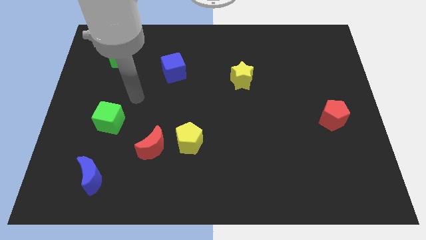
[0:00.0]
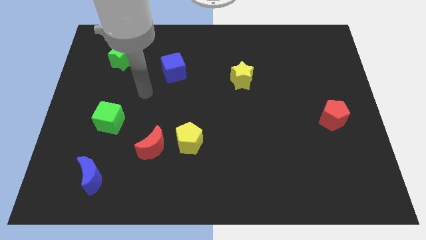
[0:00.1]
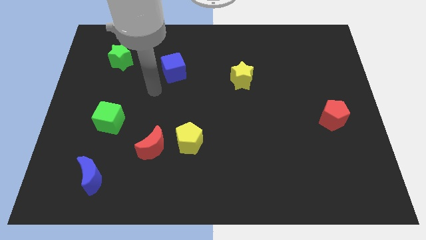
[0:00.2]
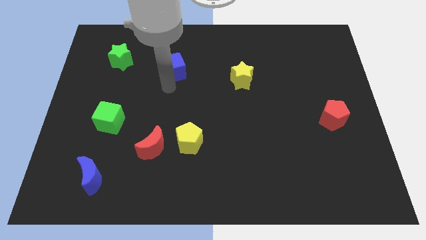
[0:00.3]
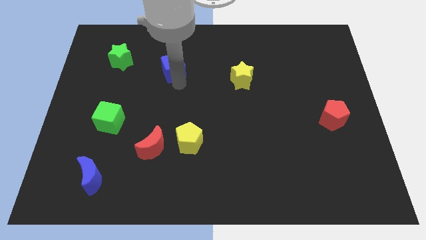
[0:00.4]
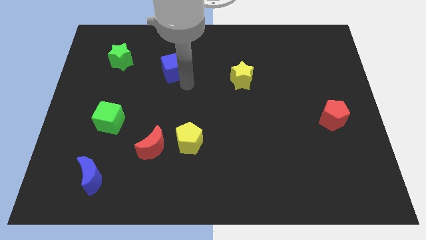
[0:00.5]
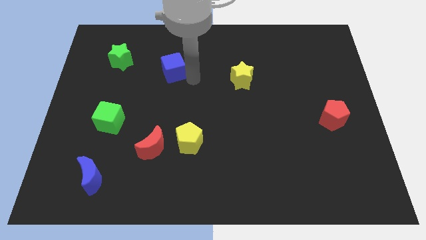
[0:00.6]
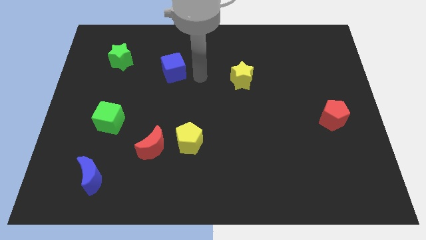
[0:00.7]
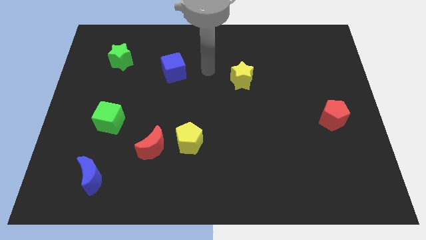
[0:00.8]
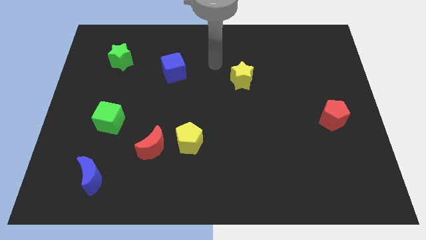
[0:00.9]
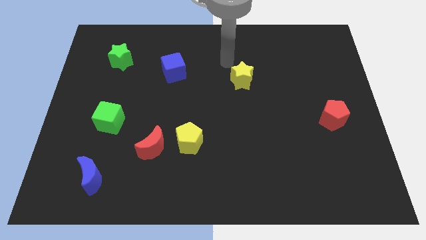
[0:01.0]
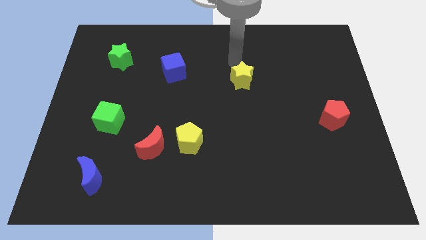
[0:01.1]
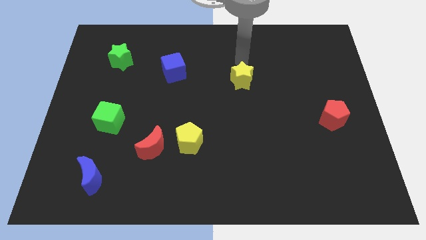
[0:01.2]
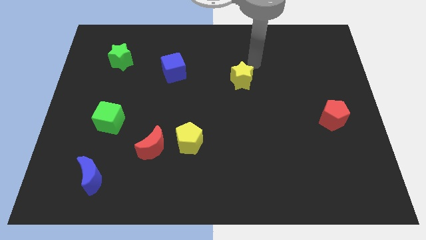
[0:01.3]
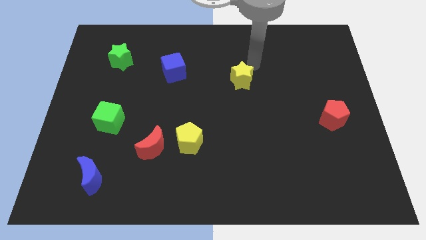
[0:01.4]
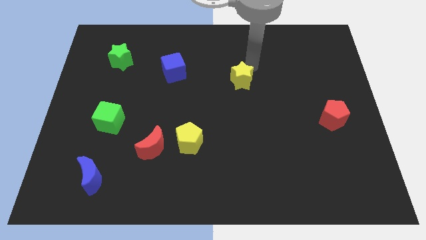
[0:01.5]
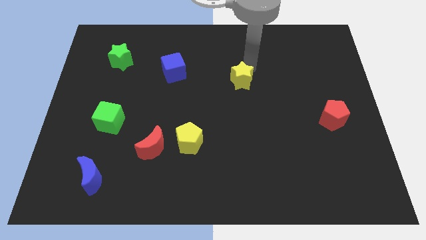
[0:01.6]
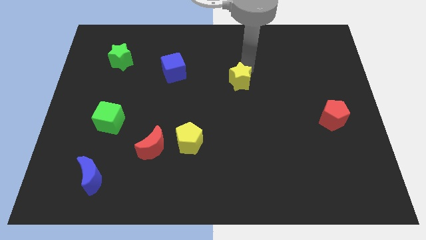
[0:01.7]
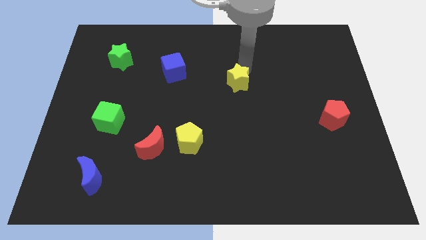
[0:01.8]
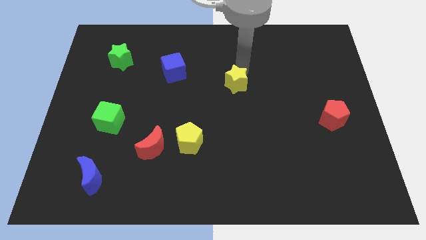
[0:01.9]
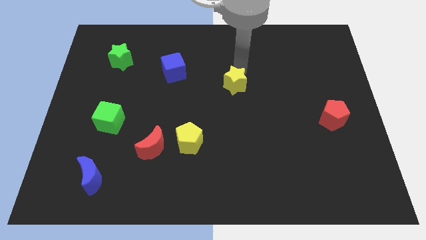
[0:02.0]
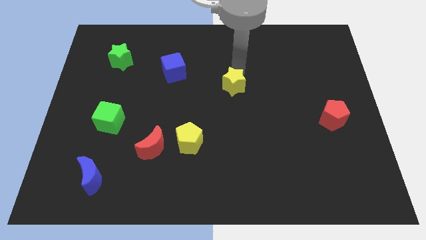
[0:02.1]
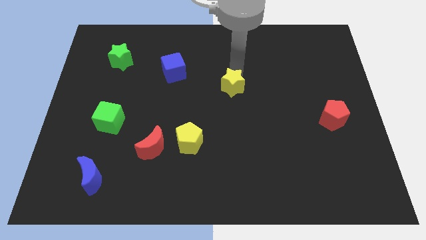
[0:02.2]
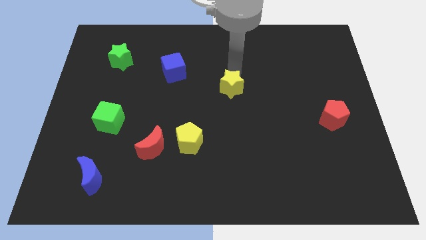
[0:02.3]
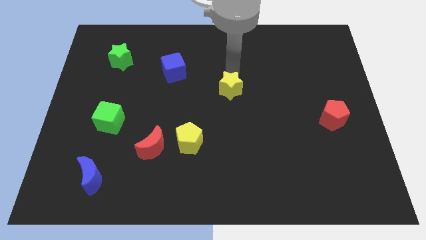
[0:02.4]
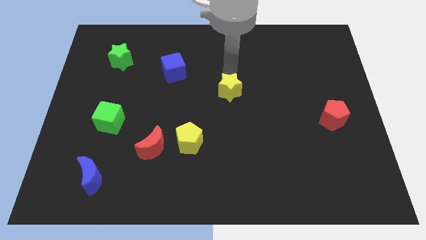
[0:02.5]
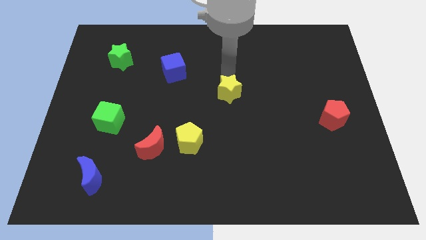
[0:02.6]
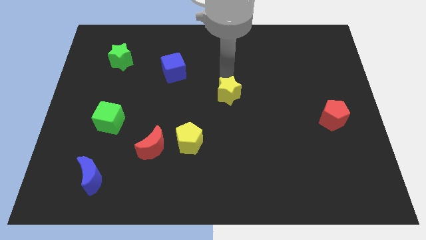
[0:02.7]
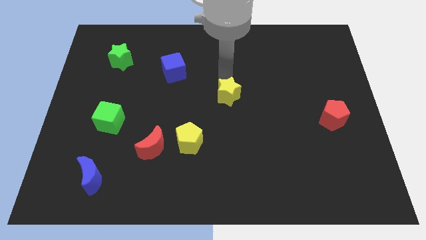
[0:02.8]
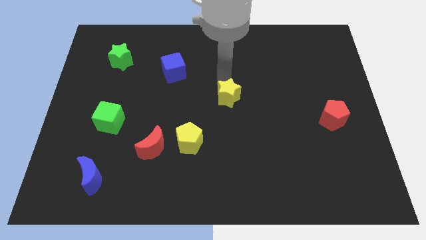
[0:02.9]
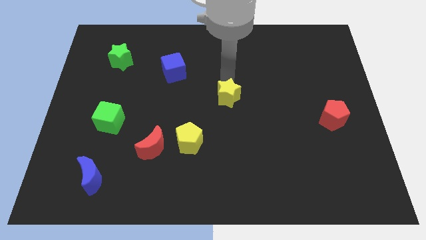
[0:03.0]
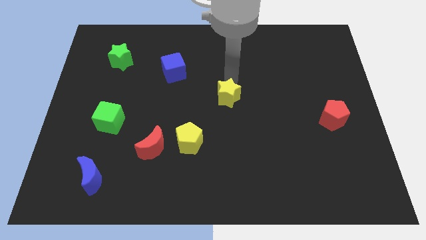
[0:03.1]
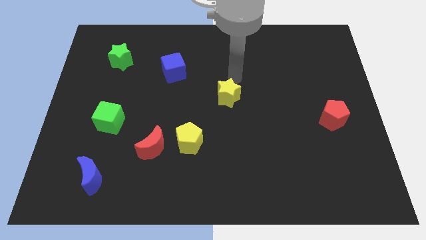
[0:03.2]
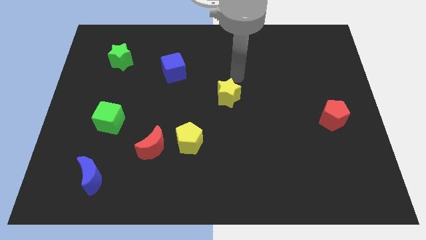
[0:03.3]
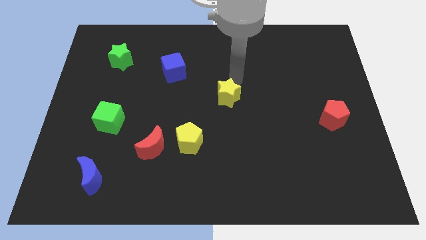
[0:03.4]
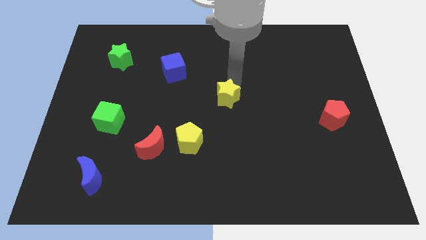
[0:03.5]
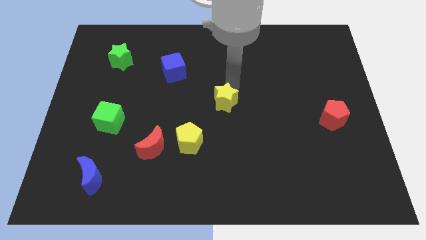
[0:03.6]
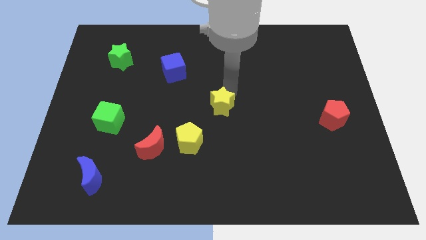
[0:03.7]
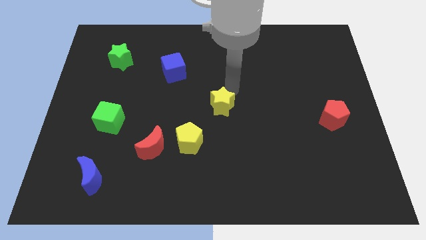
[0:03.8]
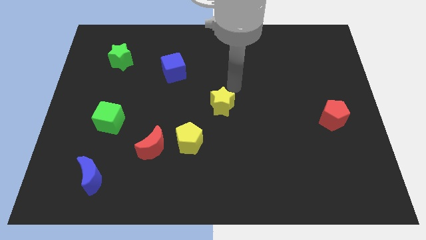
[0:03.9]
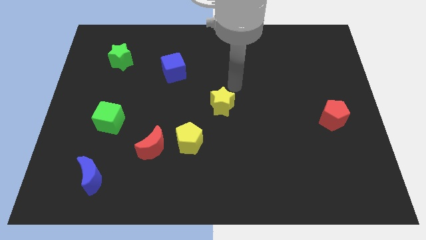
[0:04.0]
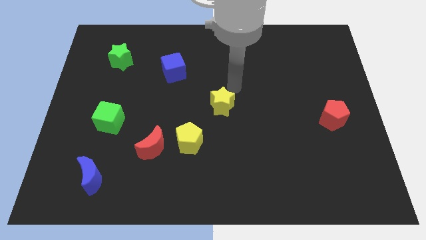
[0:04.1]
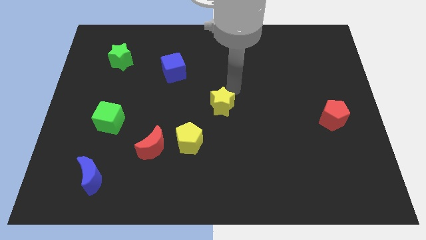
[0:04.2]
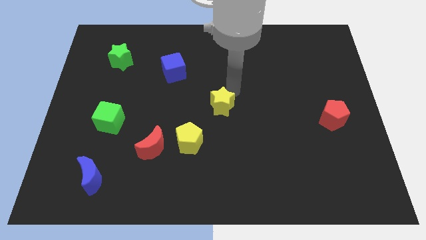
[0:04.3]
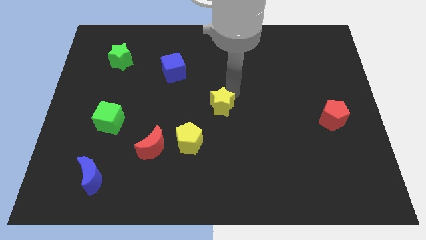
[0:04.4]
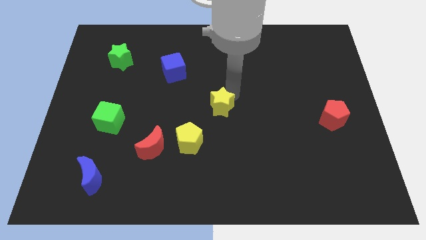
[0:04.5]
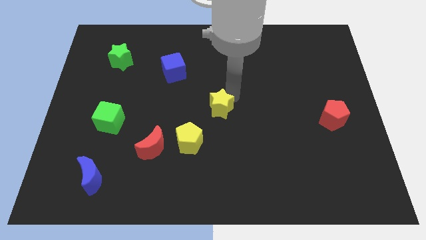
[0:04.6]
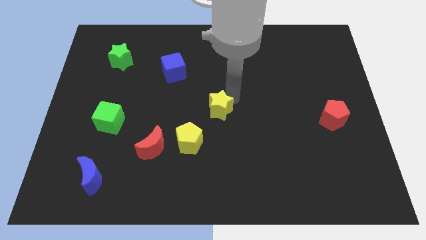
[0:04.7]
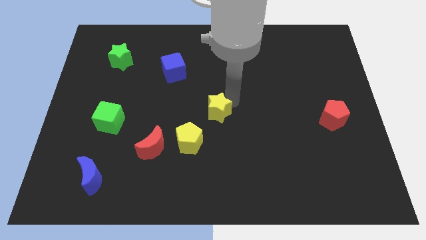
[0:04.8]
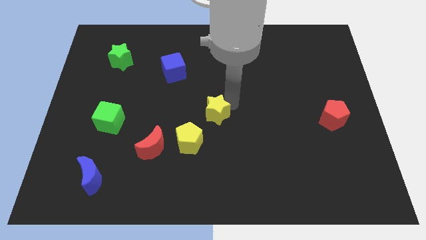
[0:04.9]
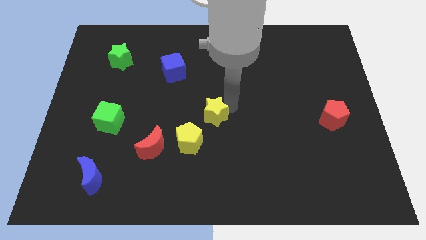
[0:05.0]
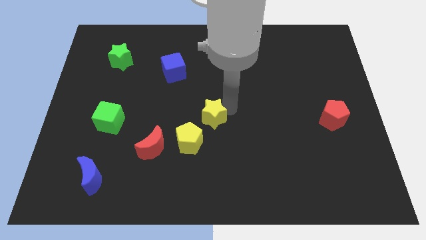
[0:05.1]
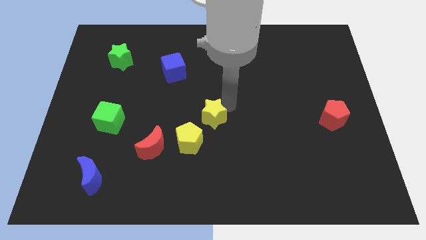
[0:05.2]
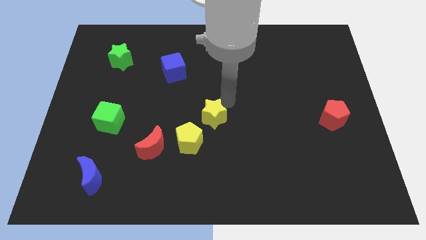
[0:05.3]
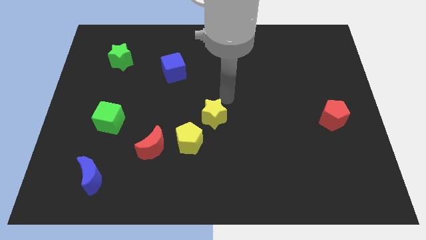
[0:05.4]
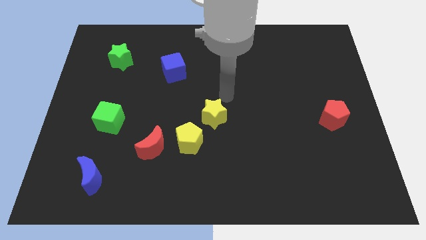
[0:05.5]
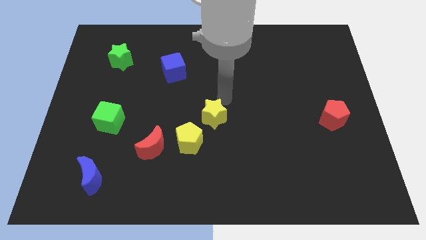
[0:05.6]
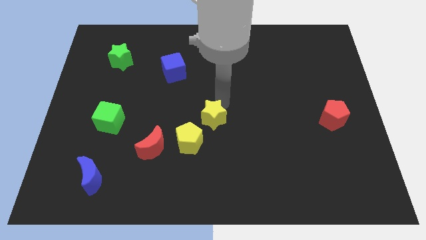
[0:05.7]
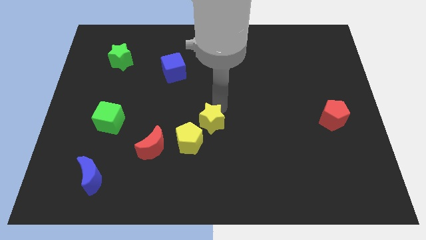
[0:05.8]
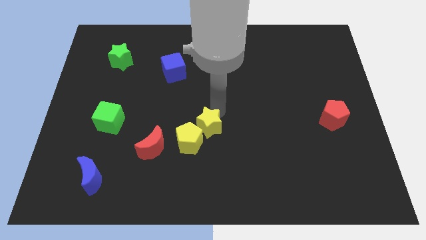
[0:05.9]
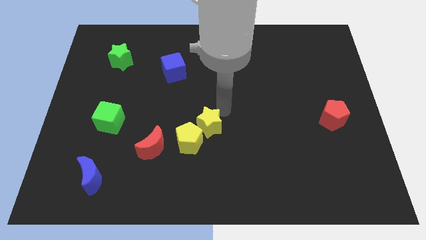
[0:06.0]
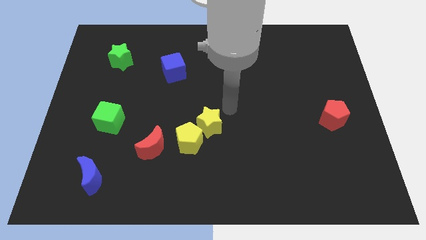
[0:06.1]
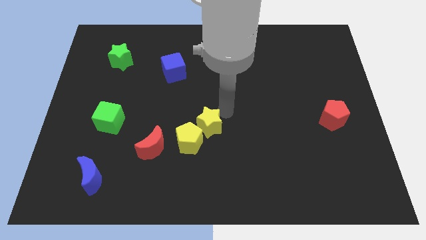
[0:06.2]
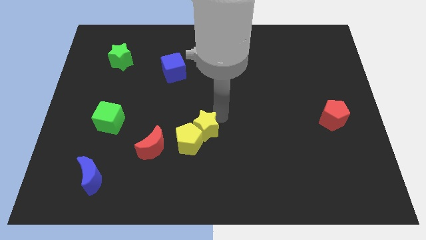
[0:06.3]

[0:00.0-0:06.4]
slide the yellow star towards the yellow pentagon

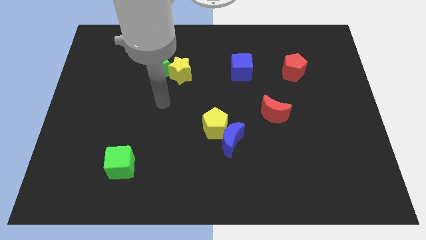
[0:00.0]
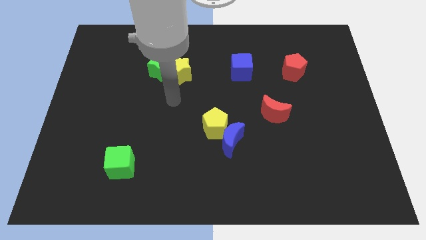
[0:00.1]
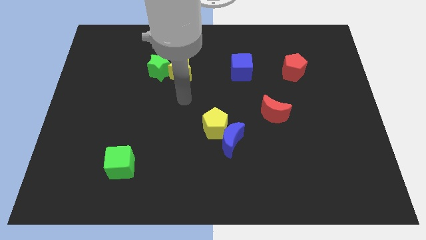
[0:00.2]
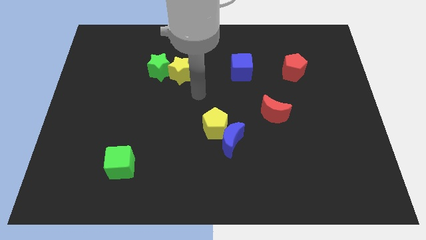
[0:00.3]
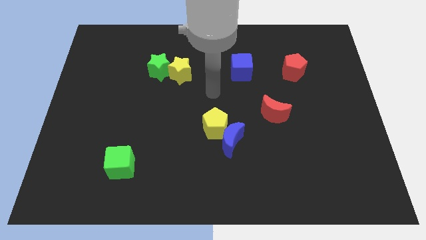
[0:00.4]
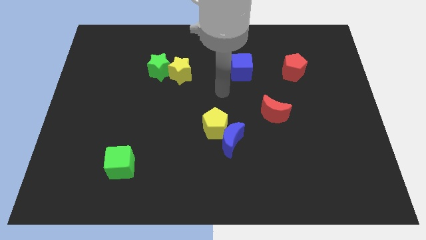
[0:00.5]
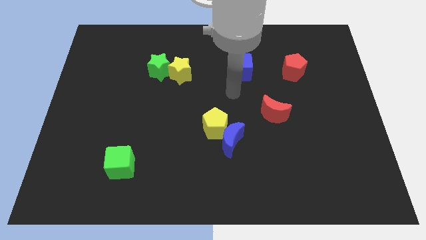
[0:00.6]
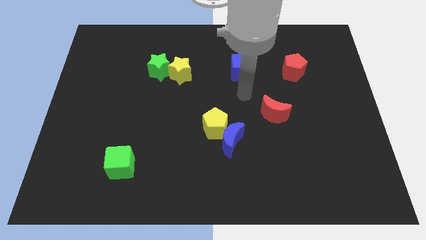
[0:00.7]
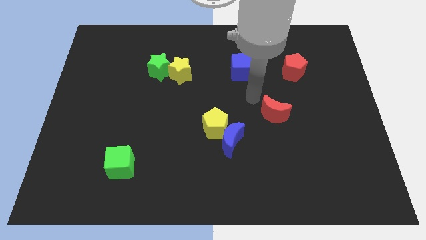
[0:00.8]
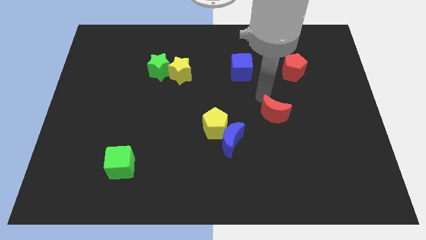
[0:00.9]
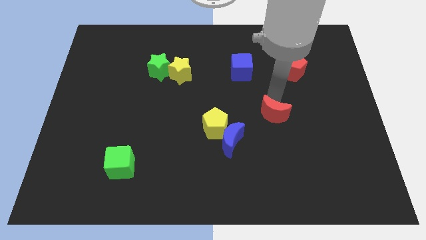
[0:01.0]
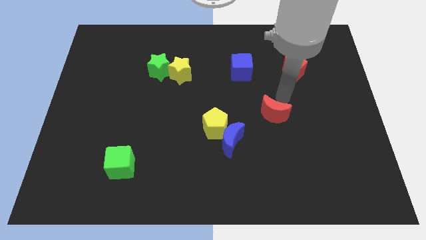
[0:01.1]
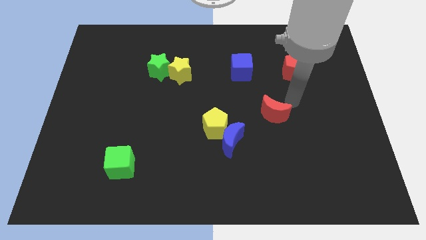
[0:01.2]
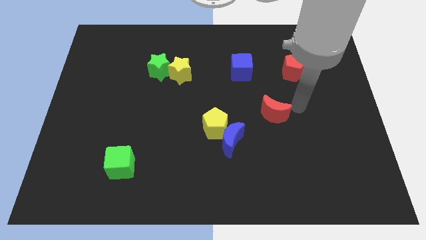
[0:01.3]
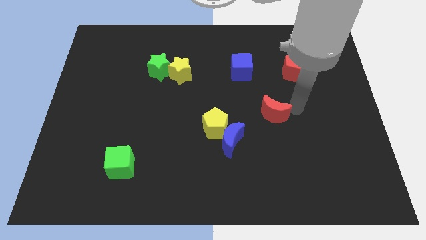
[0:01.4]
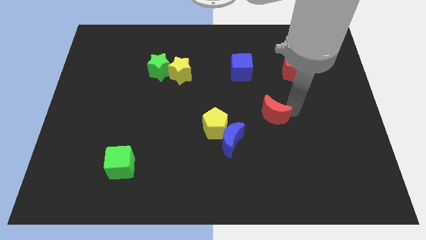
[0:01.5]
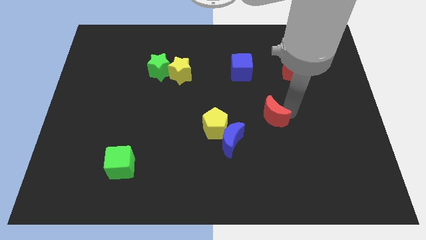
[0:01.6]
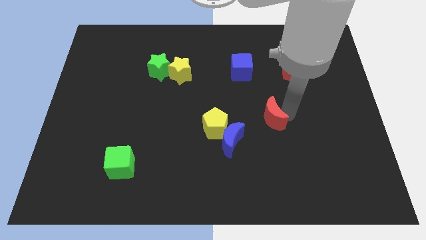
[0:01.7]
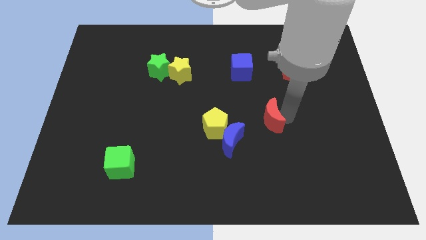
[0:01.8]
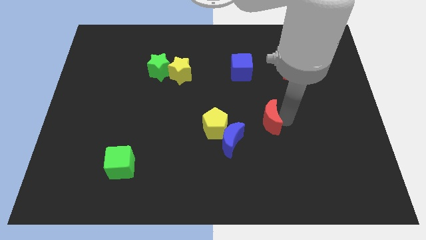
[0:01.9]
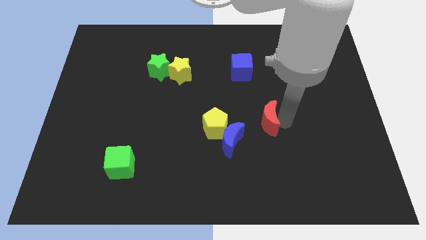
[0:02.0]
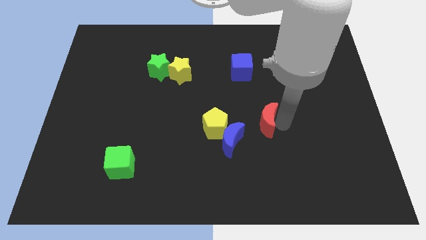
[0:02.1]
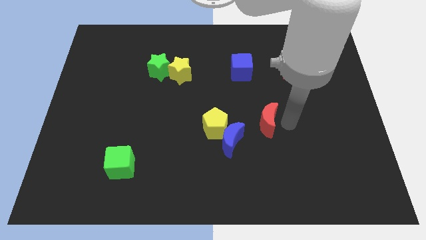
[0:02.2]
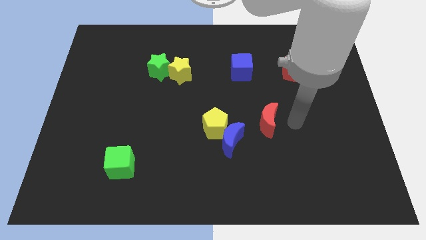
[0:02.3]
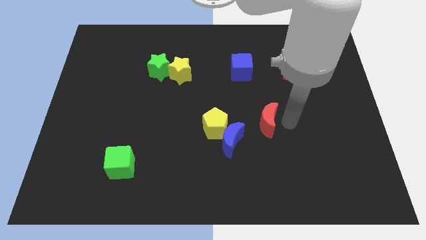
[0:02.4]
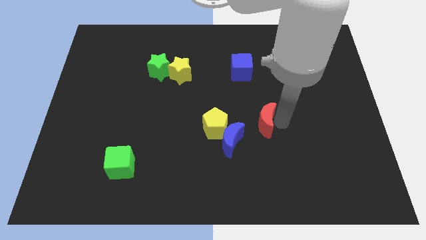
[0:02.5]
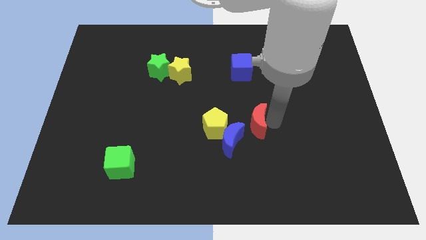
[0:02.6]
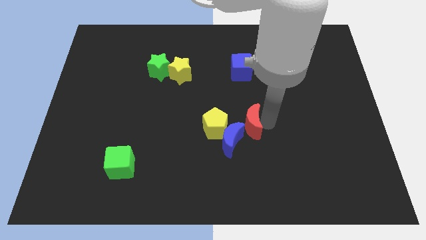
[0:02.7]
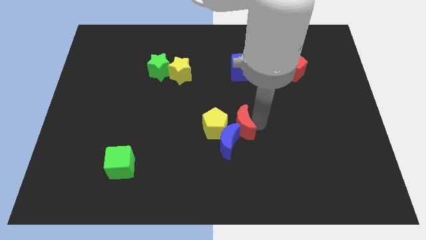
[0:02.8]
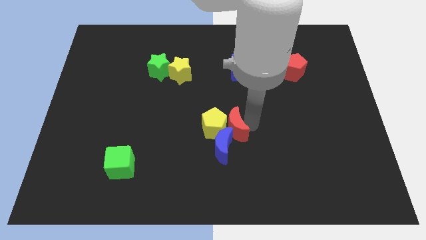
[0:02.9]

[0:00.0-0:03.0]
push the red moon close to the yellow pentagon
